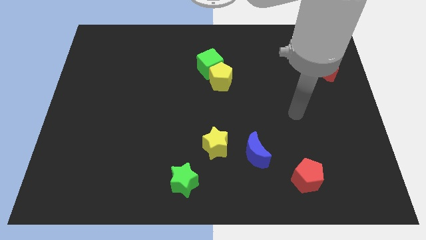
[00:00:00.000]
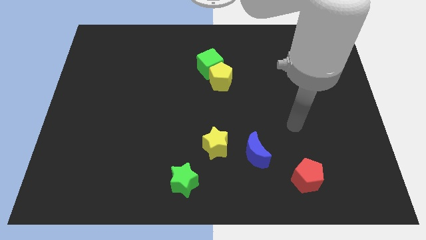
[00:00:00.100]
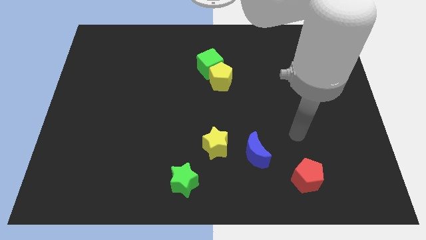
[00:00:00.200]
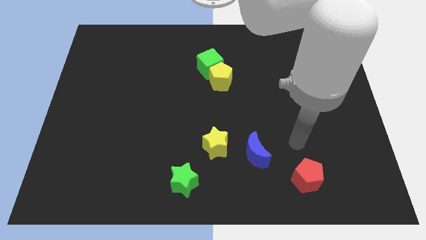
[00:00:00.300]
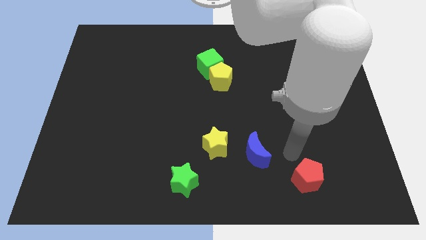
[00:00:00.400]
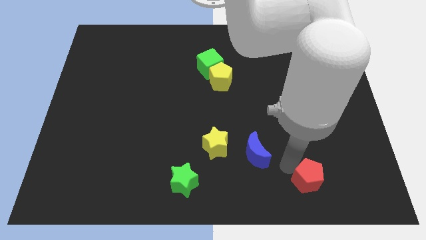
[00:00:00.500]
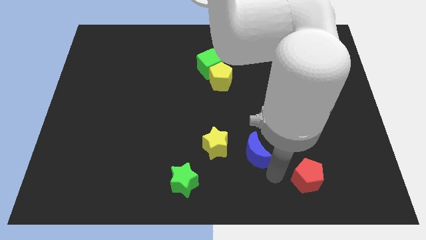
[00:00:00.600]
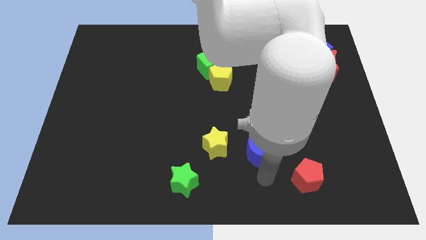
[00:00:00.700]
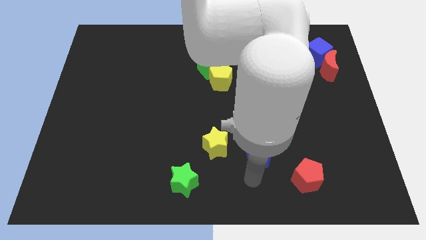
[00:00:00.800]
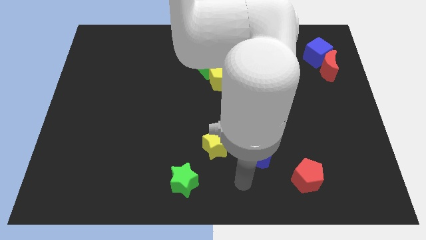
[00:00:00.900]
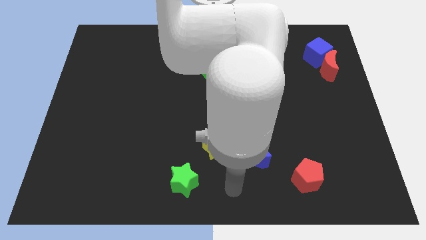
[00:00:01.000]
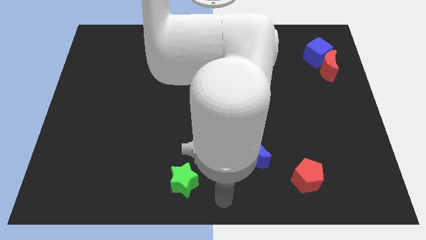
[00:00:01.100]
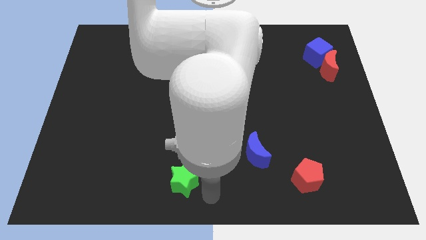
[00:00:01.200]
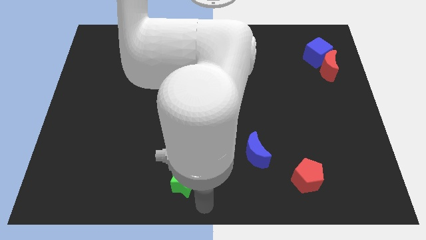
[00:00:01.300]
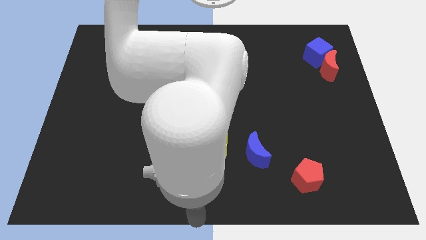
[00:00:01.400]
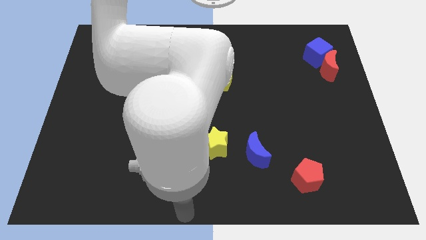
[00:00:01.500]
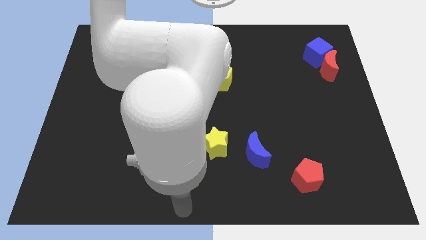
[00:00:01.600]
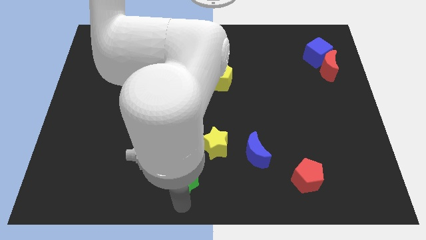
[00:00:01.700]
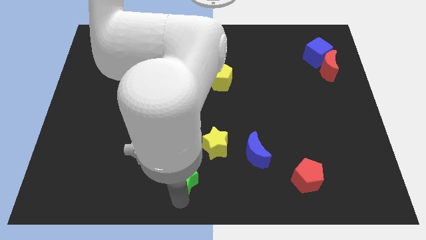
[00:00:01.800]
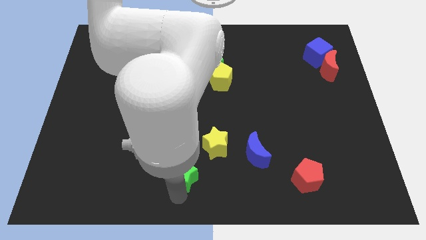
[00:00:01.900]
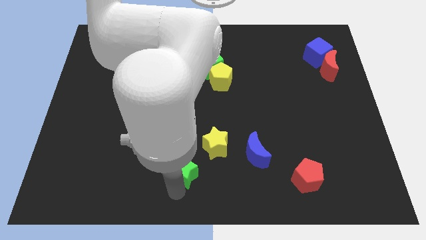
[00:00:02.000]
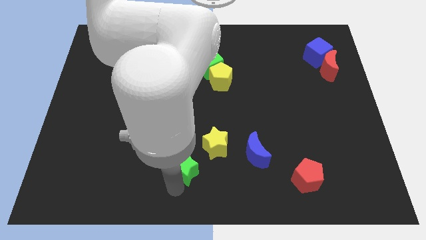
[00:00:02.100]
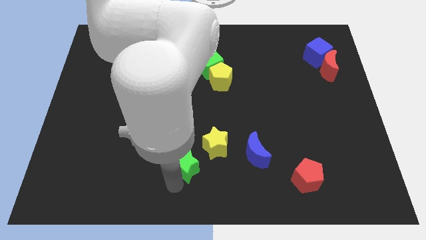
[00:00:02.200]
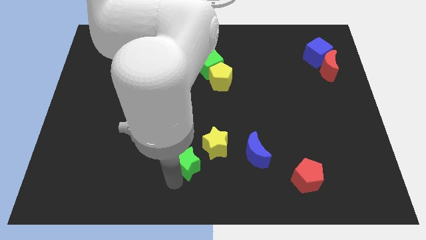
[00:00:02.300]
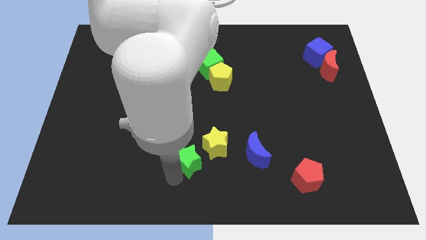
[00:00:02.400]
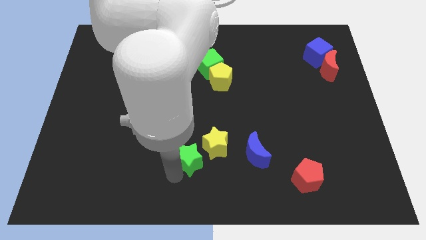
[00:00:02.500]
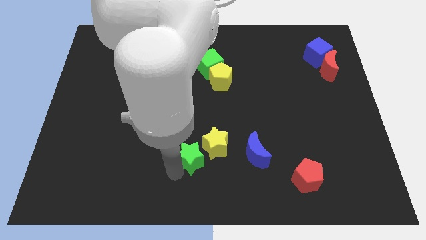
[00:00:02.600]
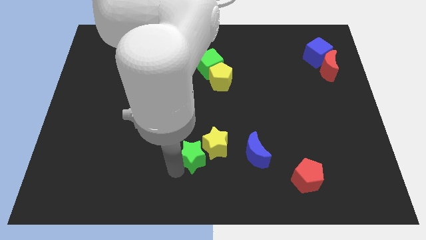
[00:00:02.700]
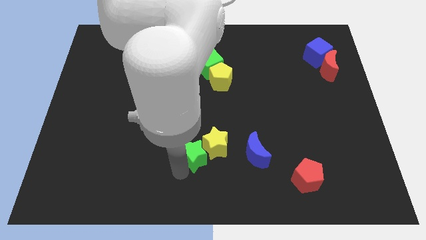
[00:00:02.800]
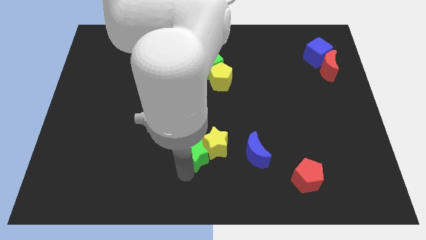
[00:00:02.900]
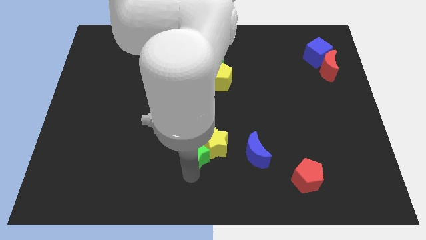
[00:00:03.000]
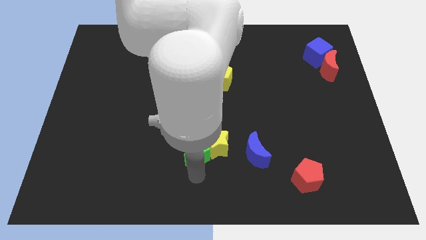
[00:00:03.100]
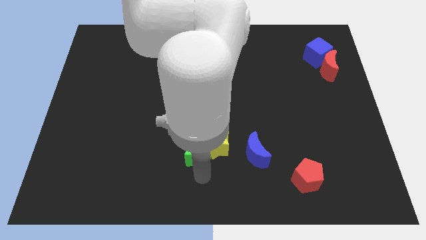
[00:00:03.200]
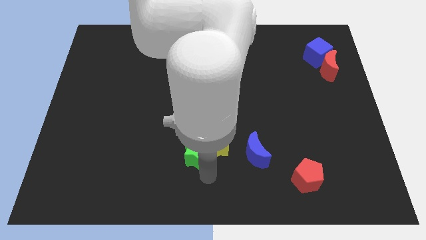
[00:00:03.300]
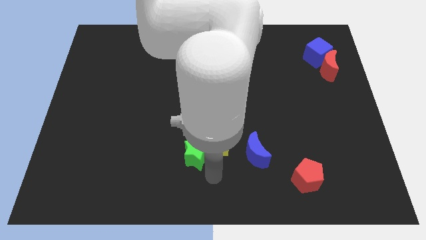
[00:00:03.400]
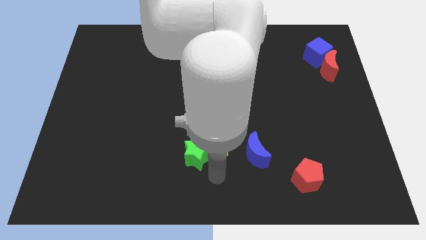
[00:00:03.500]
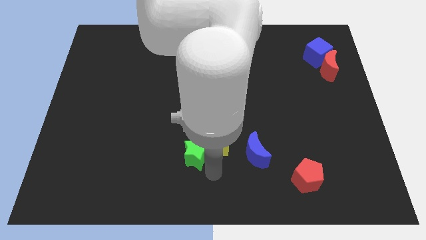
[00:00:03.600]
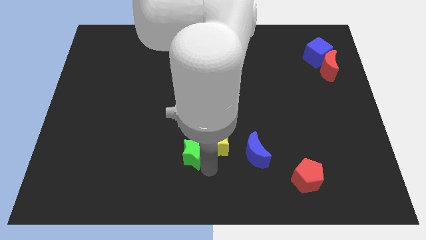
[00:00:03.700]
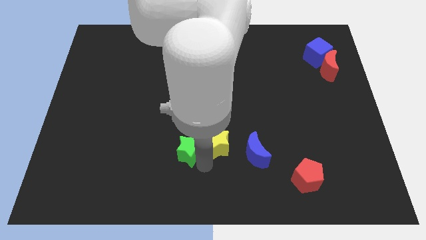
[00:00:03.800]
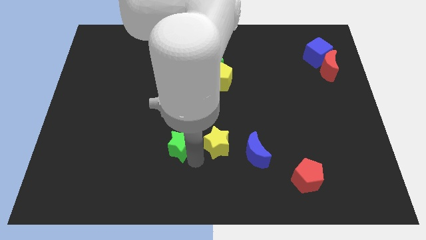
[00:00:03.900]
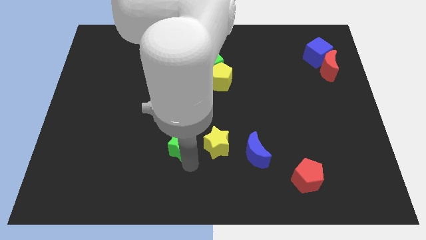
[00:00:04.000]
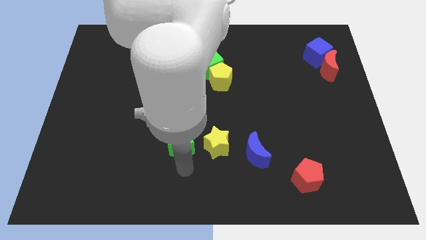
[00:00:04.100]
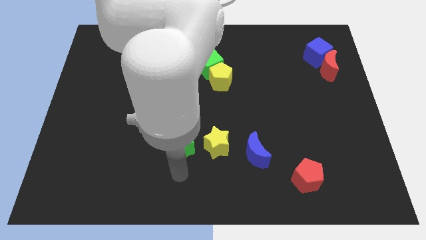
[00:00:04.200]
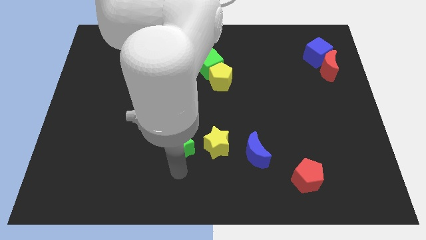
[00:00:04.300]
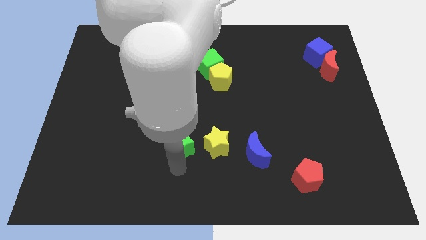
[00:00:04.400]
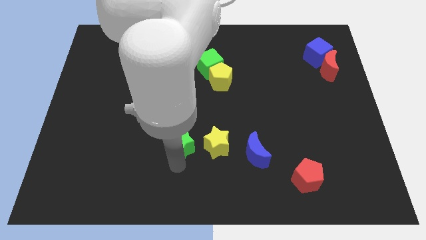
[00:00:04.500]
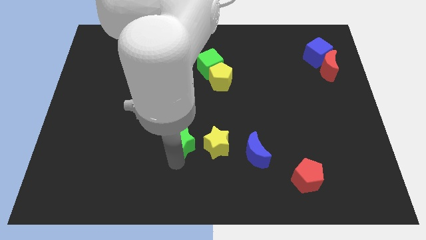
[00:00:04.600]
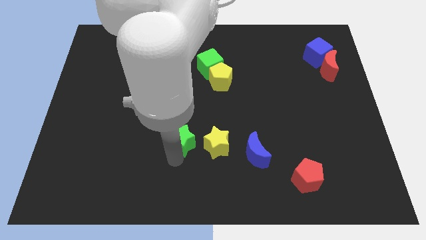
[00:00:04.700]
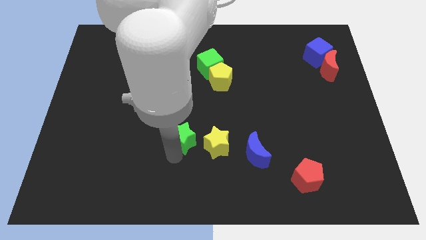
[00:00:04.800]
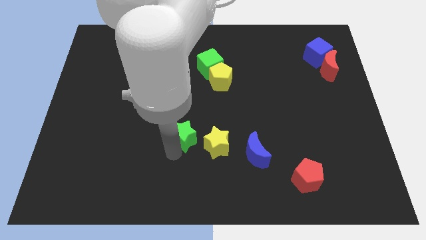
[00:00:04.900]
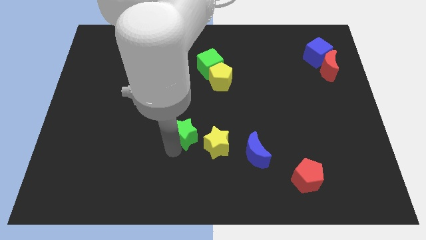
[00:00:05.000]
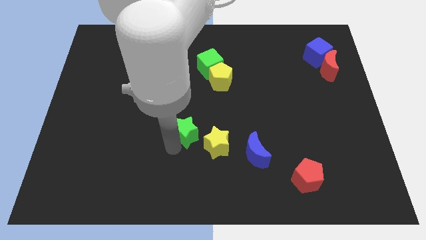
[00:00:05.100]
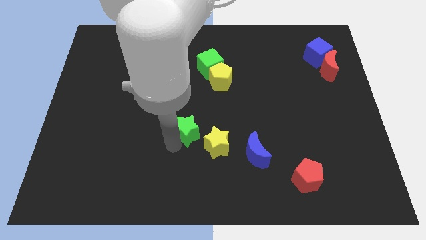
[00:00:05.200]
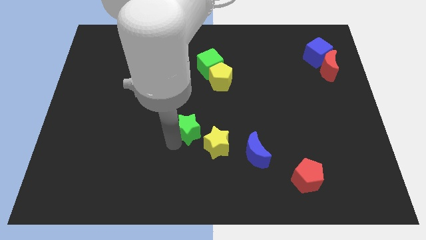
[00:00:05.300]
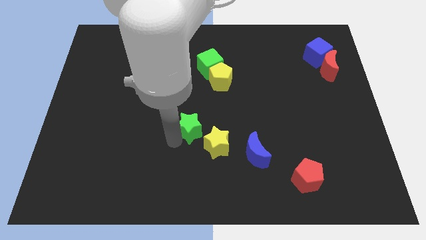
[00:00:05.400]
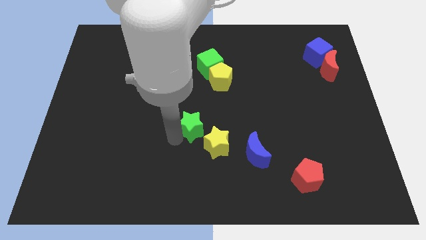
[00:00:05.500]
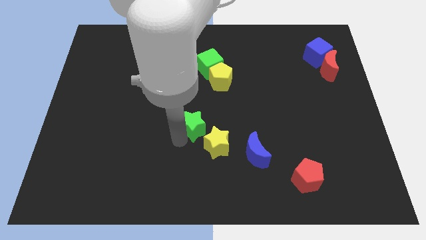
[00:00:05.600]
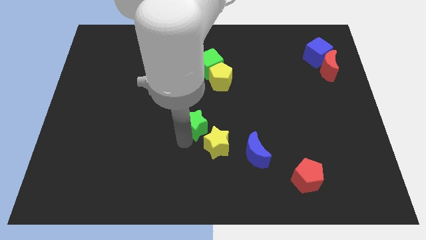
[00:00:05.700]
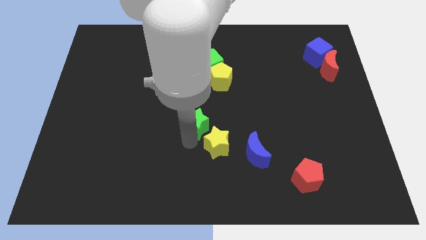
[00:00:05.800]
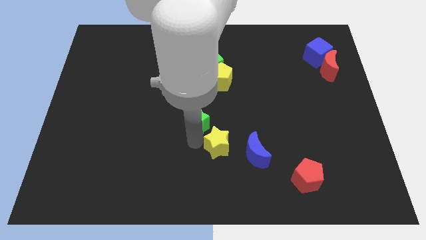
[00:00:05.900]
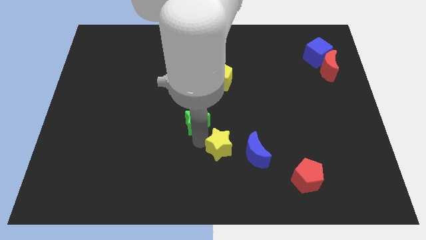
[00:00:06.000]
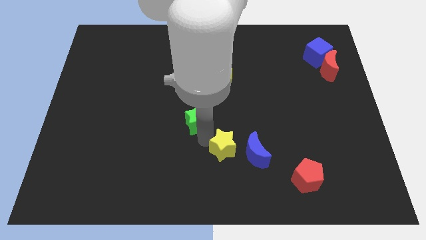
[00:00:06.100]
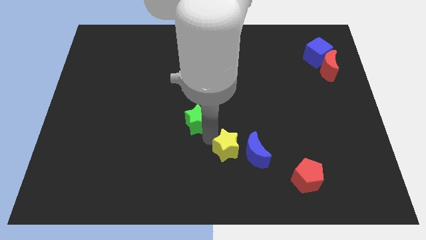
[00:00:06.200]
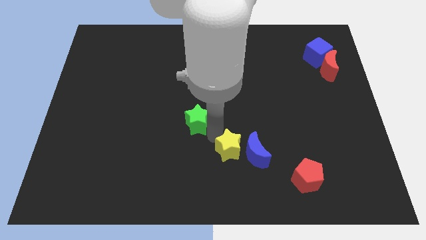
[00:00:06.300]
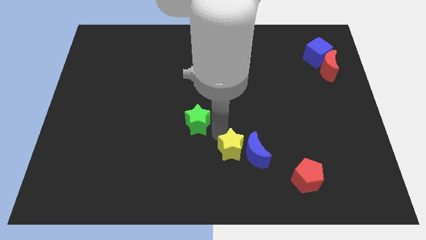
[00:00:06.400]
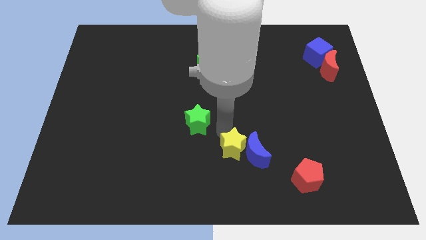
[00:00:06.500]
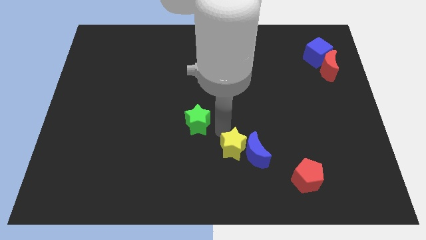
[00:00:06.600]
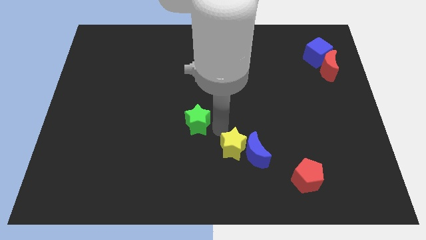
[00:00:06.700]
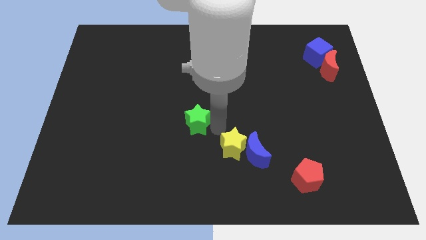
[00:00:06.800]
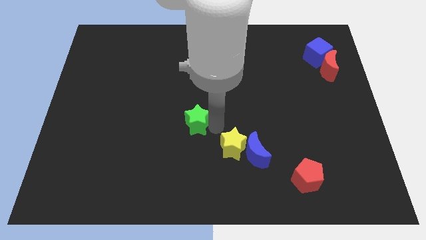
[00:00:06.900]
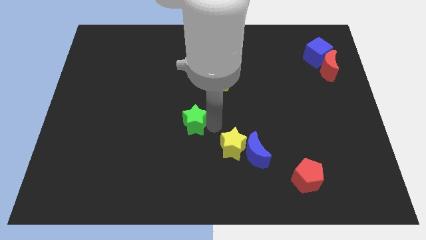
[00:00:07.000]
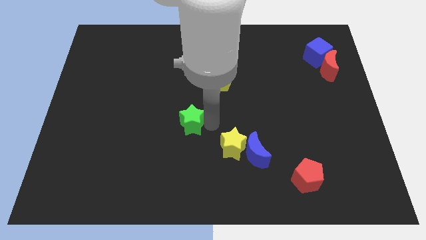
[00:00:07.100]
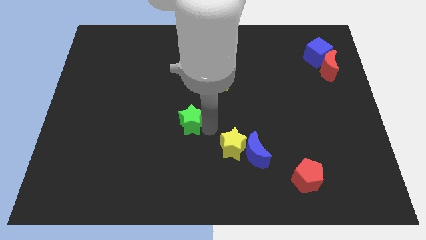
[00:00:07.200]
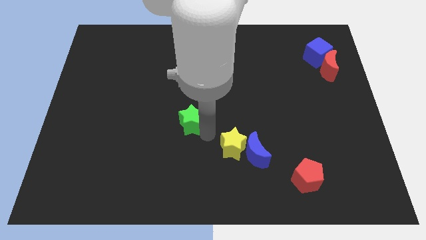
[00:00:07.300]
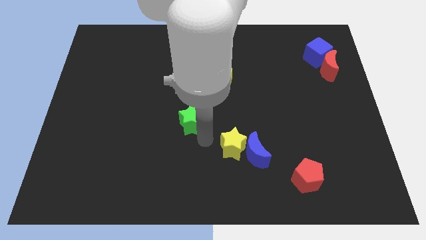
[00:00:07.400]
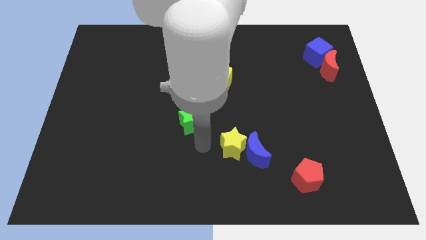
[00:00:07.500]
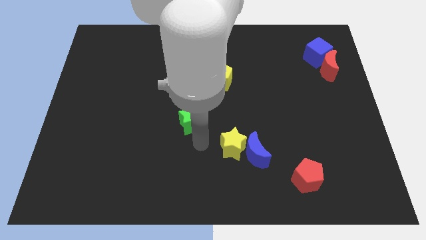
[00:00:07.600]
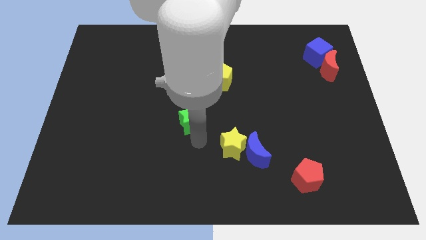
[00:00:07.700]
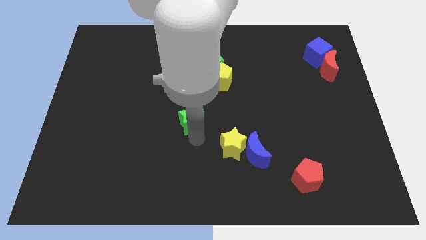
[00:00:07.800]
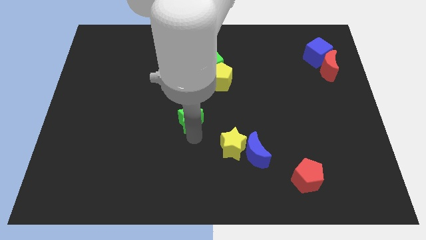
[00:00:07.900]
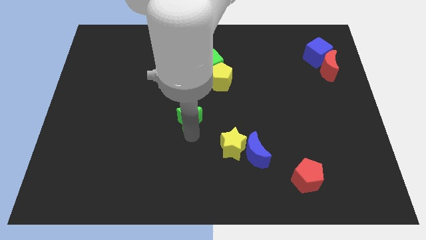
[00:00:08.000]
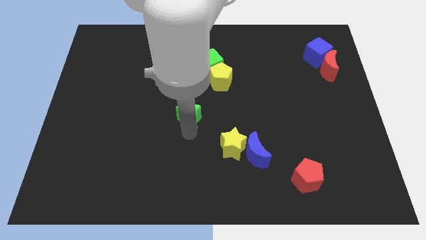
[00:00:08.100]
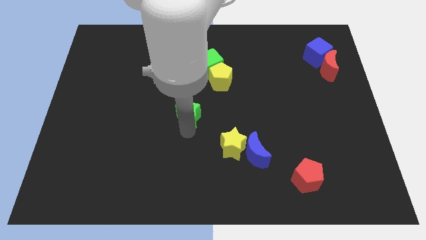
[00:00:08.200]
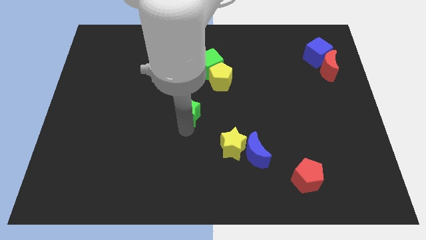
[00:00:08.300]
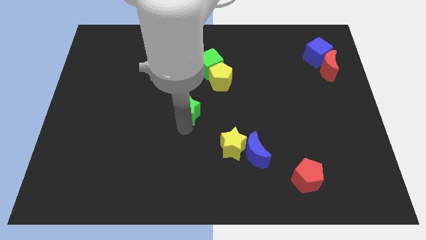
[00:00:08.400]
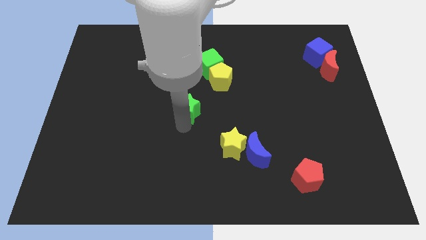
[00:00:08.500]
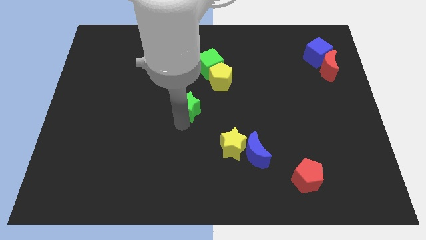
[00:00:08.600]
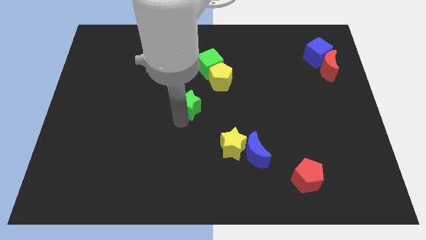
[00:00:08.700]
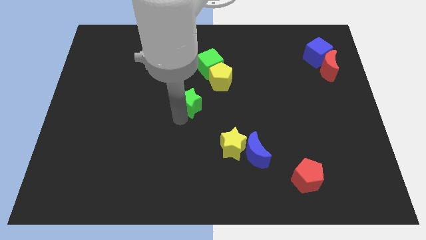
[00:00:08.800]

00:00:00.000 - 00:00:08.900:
slide the green star upwards
